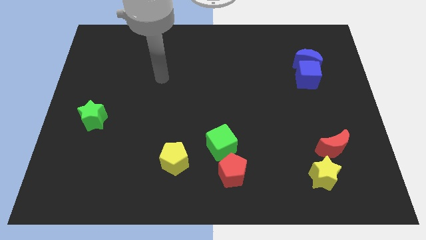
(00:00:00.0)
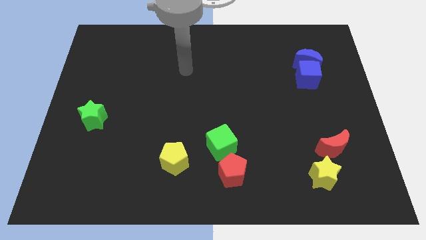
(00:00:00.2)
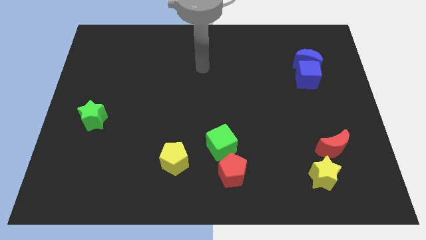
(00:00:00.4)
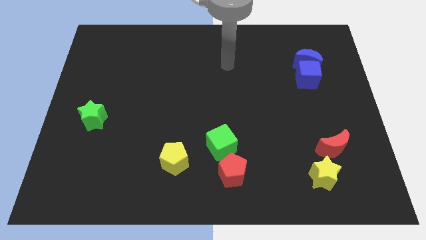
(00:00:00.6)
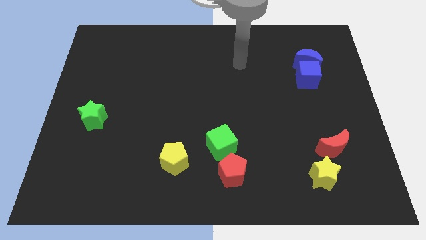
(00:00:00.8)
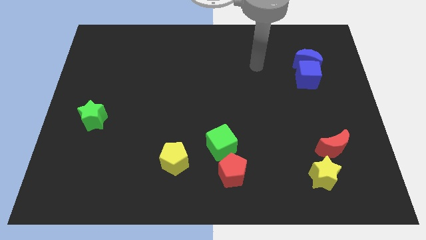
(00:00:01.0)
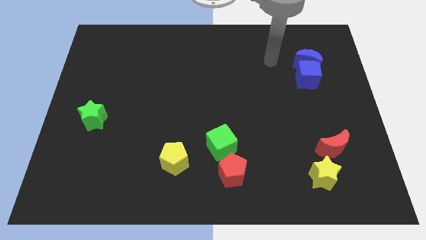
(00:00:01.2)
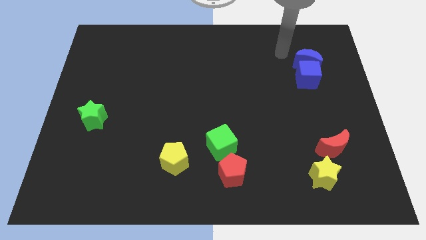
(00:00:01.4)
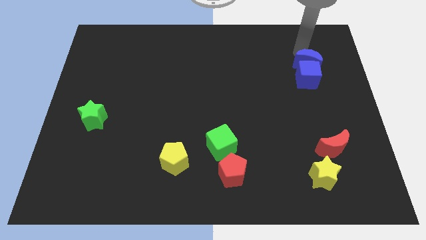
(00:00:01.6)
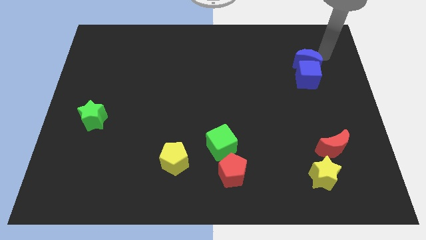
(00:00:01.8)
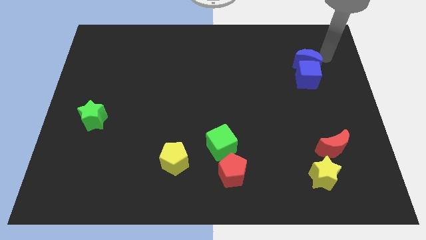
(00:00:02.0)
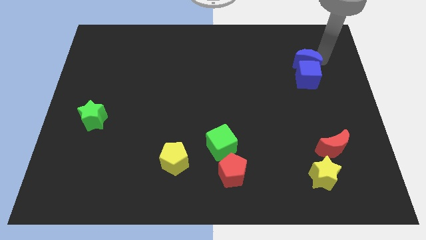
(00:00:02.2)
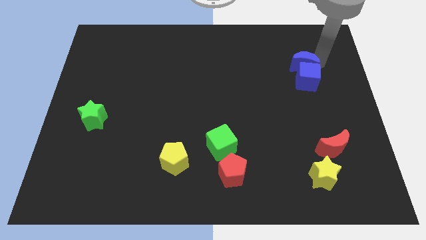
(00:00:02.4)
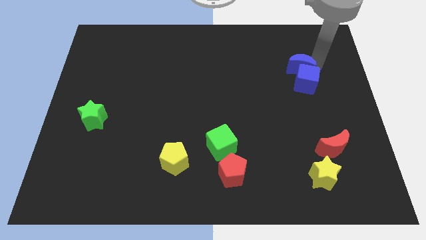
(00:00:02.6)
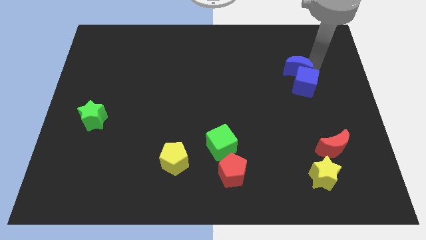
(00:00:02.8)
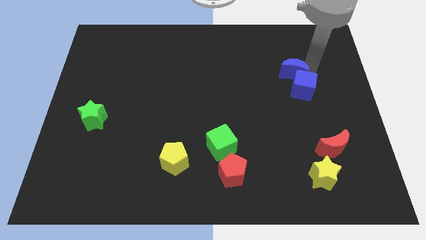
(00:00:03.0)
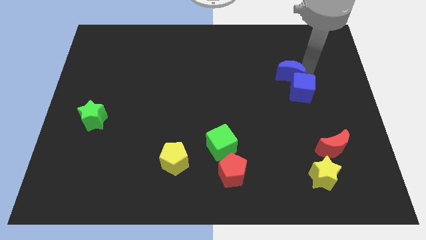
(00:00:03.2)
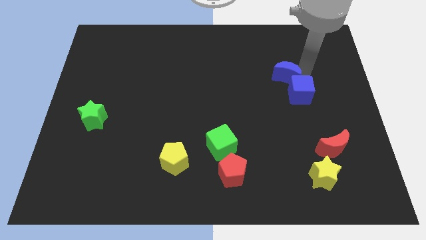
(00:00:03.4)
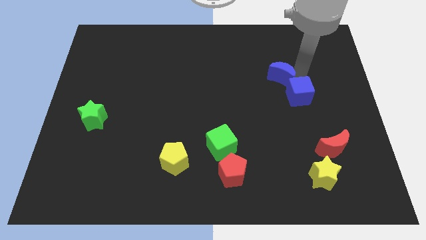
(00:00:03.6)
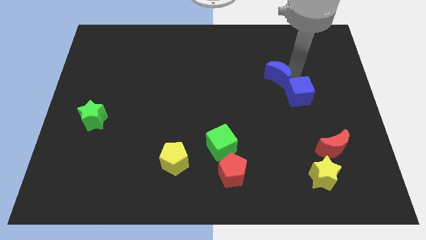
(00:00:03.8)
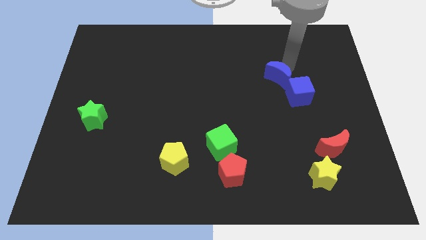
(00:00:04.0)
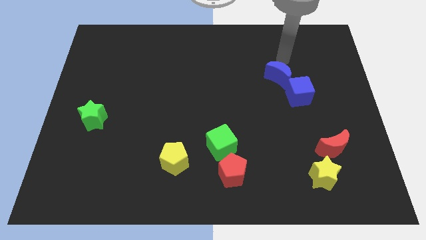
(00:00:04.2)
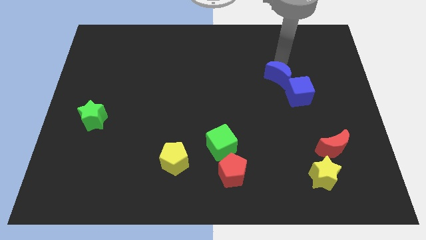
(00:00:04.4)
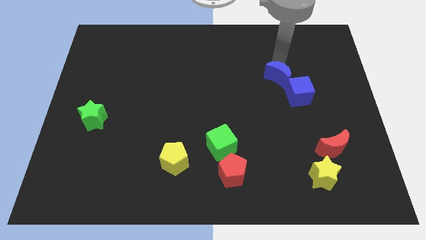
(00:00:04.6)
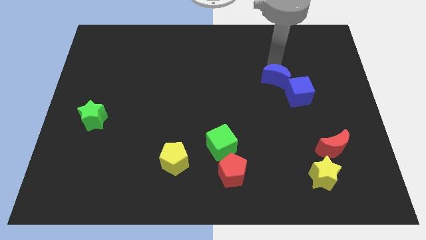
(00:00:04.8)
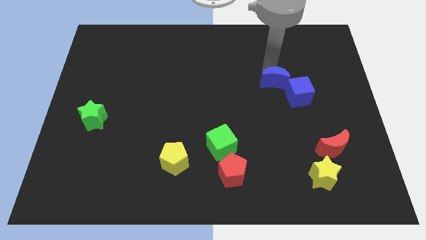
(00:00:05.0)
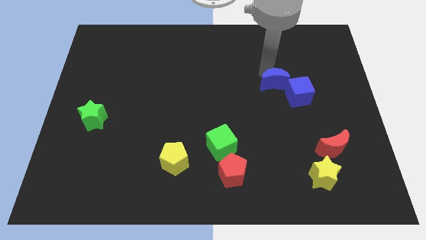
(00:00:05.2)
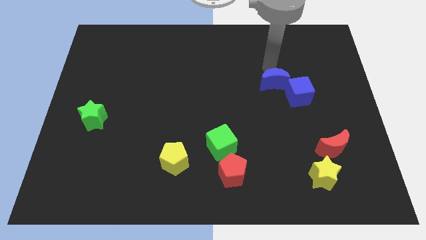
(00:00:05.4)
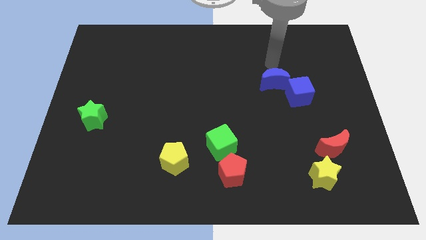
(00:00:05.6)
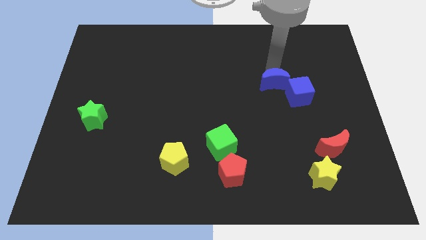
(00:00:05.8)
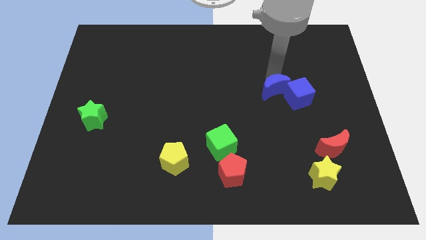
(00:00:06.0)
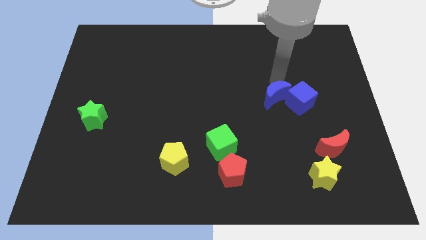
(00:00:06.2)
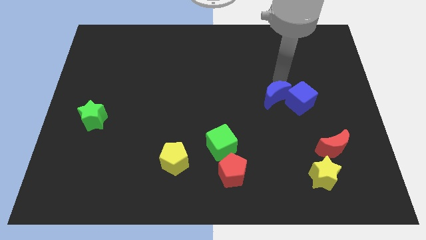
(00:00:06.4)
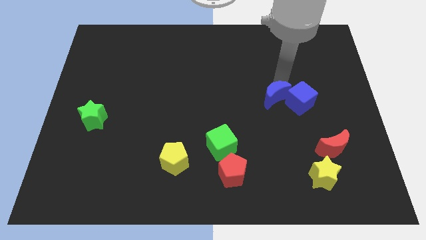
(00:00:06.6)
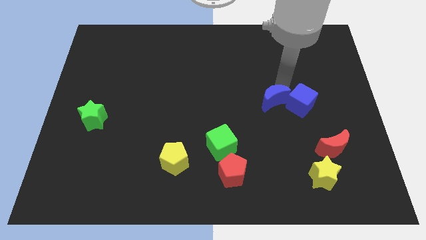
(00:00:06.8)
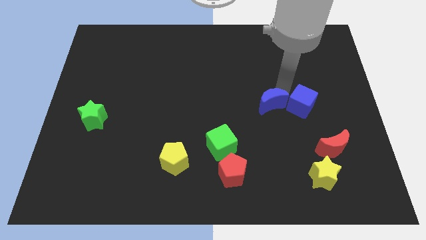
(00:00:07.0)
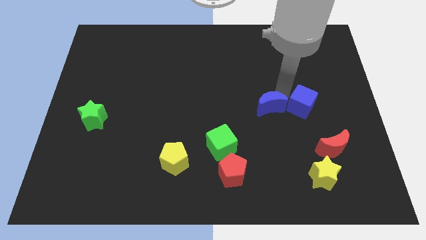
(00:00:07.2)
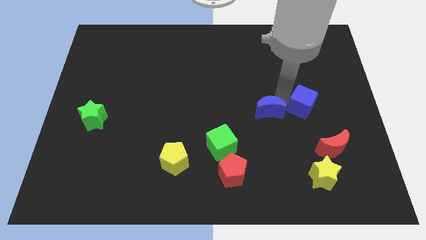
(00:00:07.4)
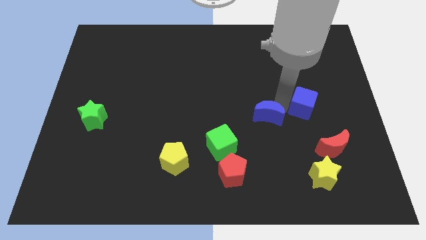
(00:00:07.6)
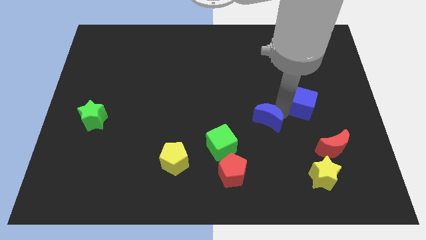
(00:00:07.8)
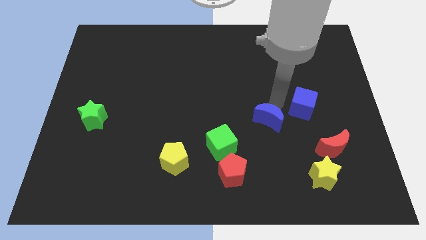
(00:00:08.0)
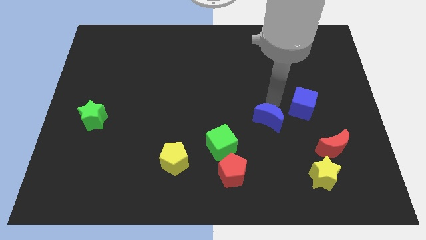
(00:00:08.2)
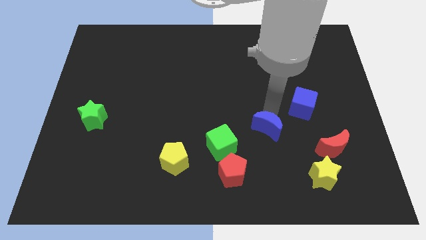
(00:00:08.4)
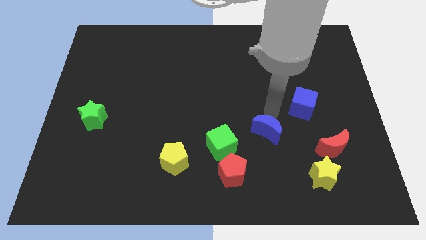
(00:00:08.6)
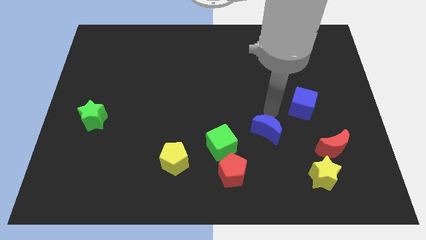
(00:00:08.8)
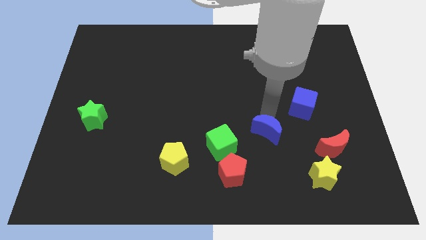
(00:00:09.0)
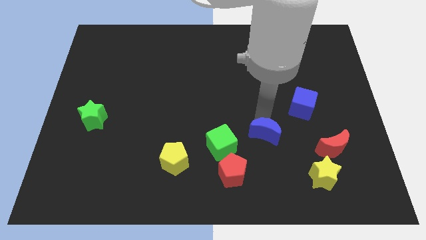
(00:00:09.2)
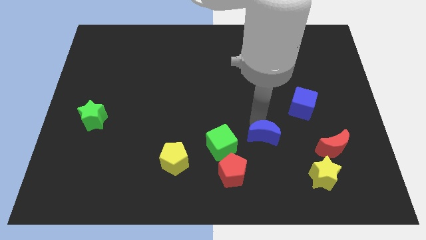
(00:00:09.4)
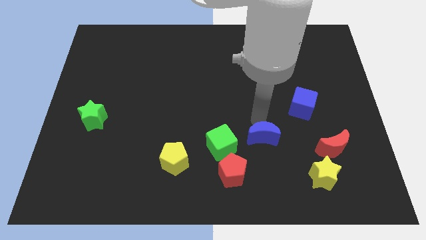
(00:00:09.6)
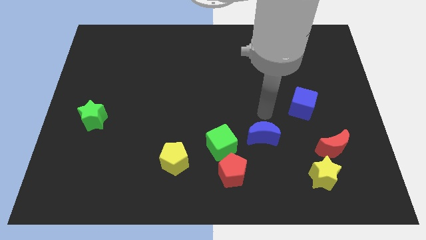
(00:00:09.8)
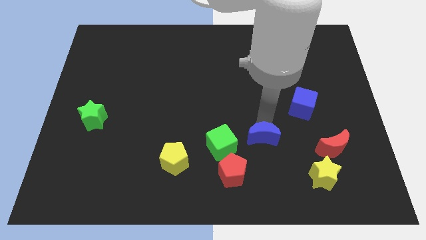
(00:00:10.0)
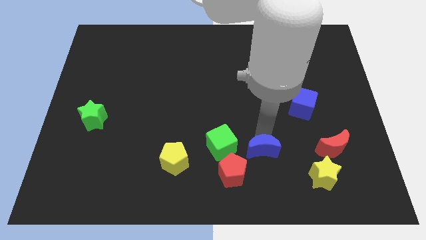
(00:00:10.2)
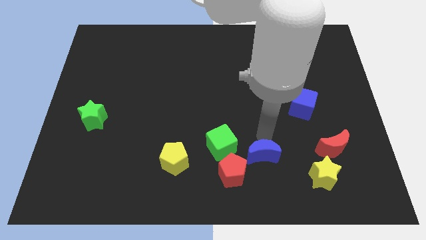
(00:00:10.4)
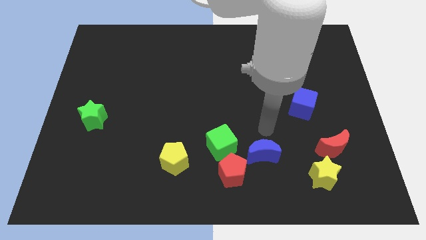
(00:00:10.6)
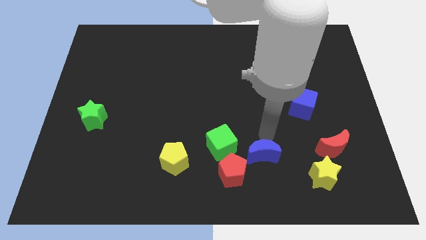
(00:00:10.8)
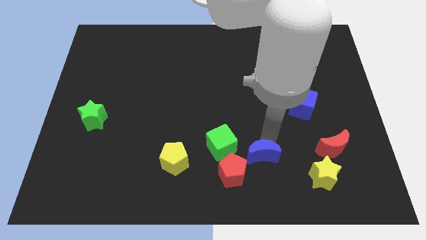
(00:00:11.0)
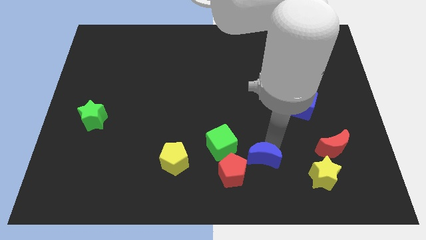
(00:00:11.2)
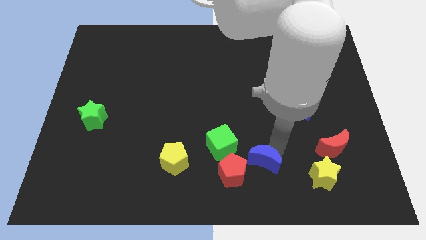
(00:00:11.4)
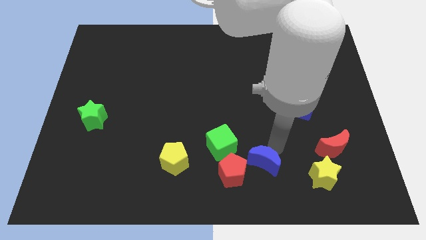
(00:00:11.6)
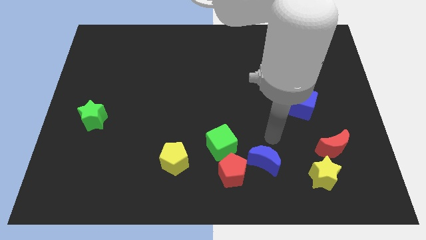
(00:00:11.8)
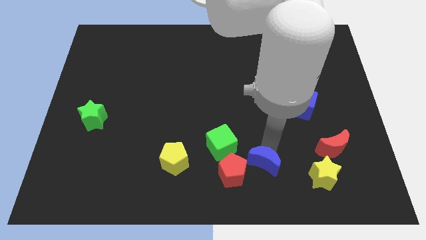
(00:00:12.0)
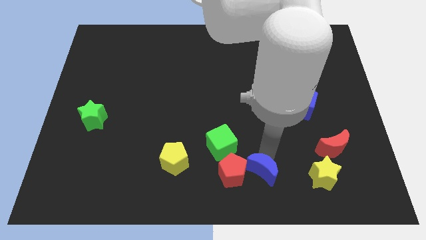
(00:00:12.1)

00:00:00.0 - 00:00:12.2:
put the blue moon to the bottom

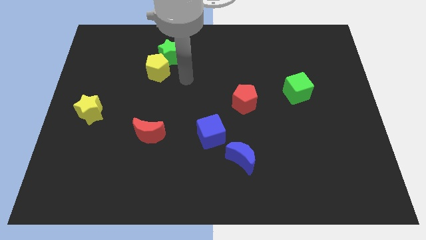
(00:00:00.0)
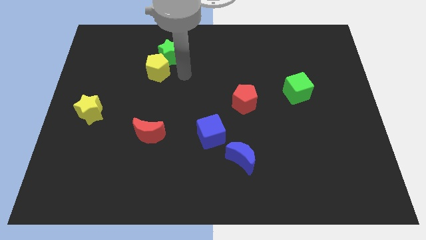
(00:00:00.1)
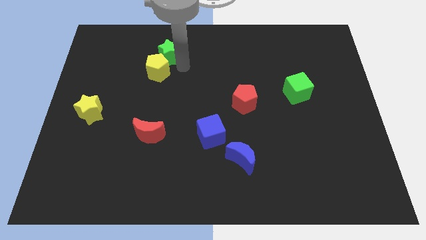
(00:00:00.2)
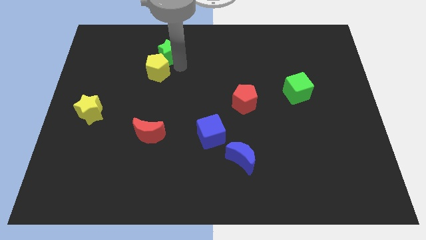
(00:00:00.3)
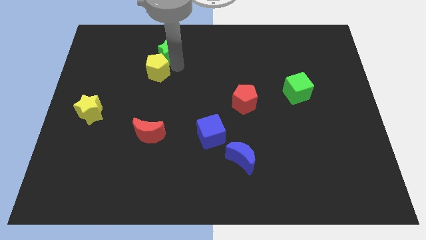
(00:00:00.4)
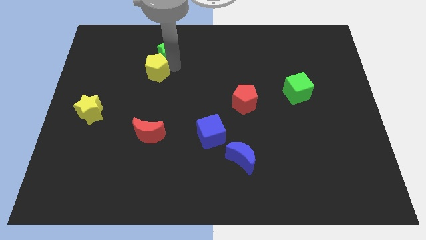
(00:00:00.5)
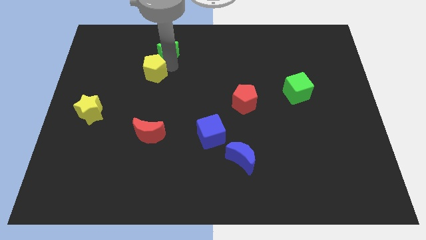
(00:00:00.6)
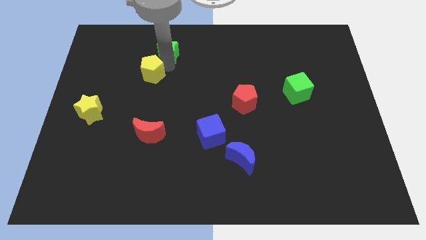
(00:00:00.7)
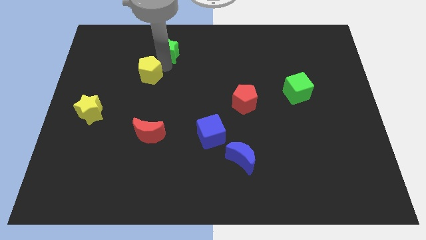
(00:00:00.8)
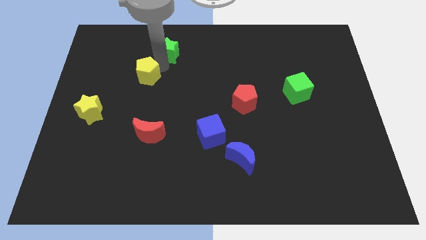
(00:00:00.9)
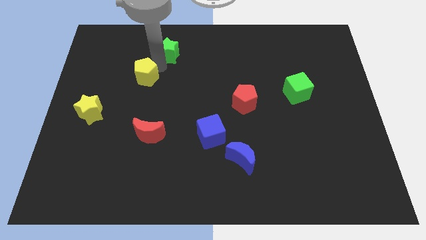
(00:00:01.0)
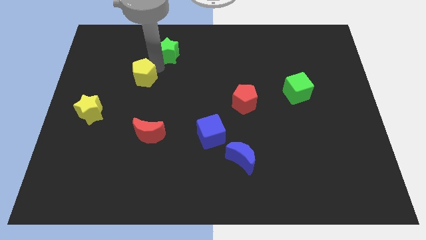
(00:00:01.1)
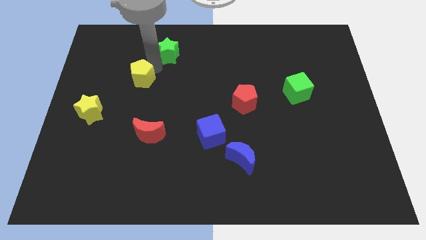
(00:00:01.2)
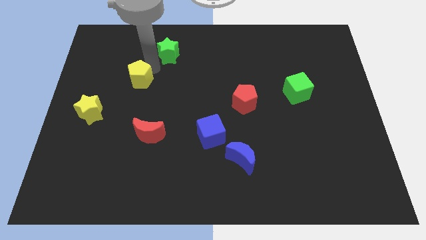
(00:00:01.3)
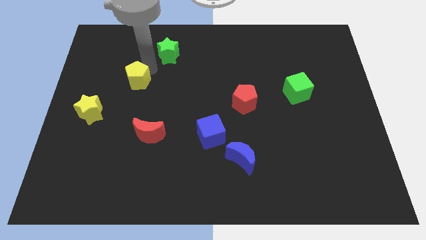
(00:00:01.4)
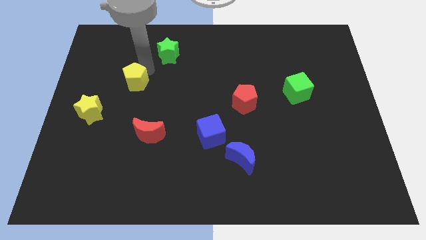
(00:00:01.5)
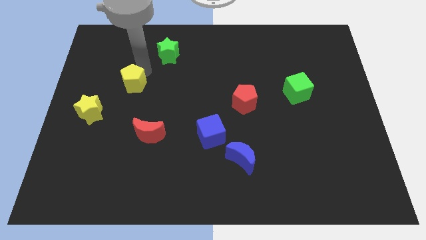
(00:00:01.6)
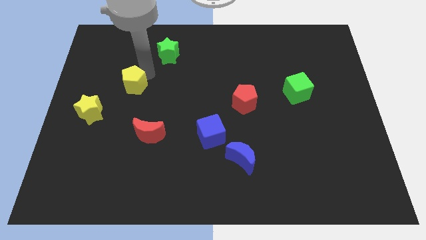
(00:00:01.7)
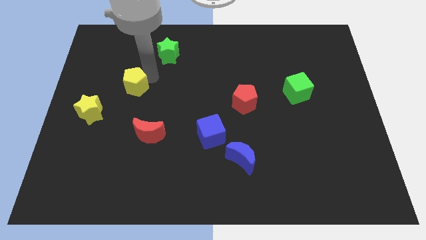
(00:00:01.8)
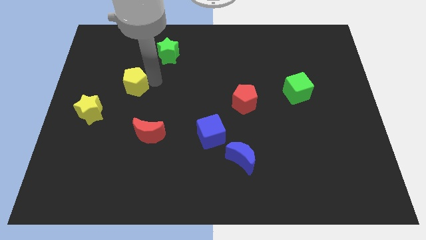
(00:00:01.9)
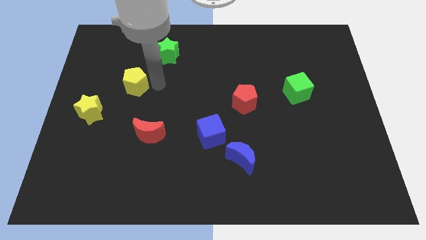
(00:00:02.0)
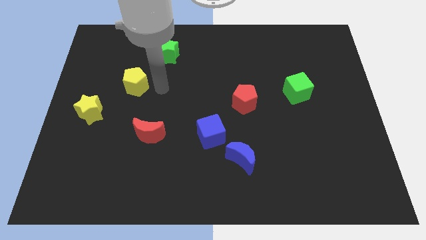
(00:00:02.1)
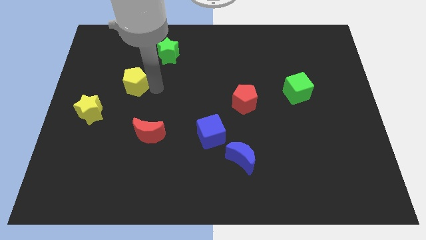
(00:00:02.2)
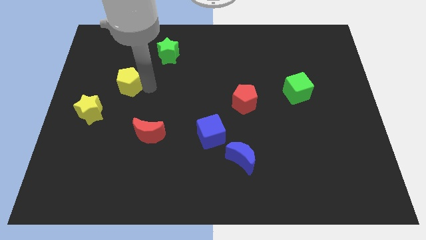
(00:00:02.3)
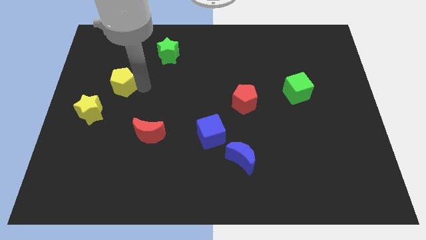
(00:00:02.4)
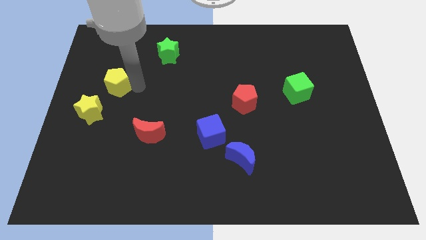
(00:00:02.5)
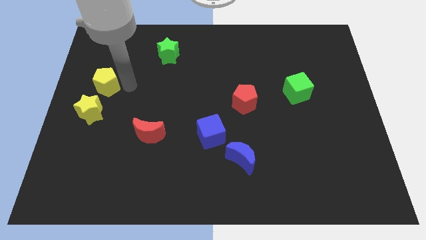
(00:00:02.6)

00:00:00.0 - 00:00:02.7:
push the yellow pentagon to the center left
